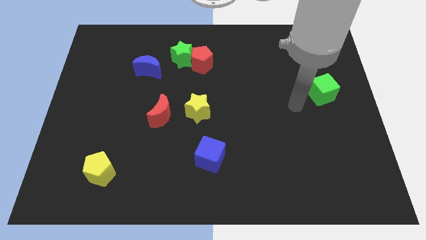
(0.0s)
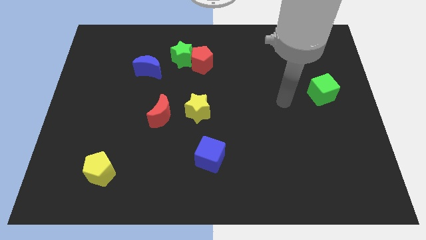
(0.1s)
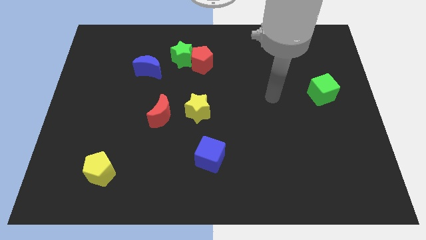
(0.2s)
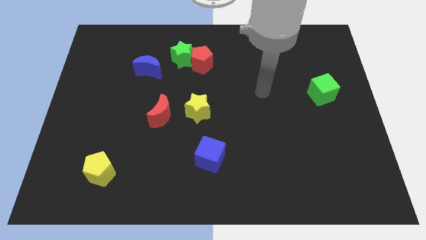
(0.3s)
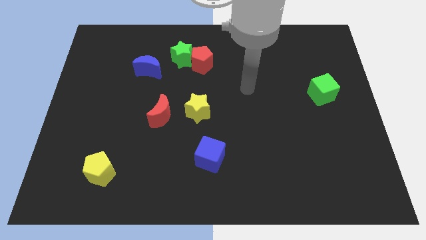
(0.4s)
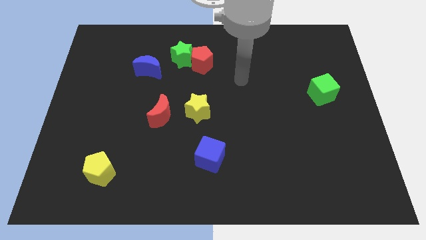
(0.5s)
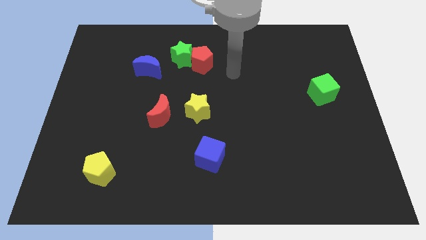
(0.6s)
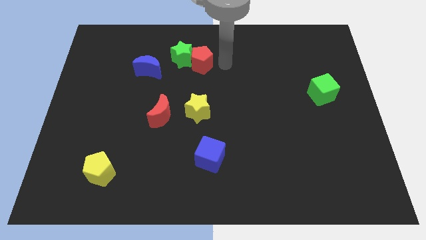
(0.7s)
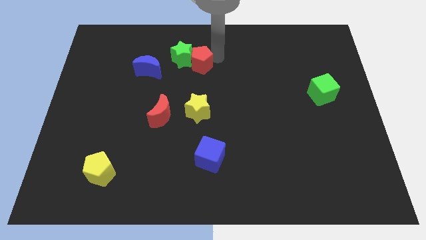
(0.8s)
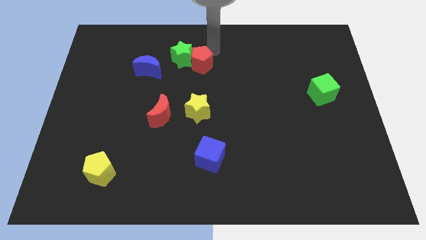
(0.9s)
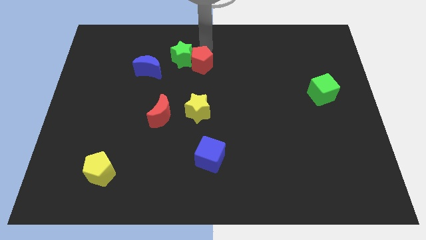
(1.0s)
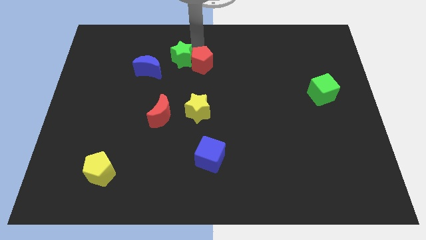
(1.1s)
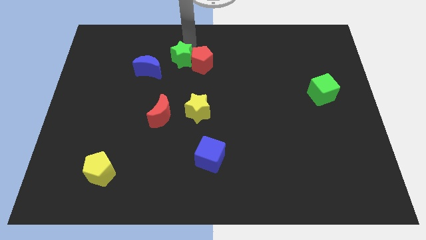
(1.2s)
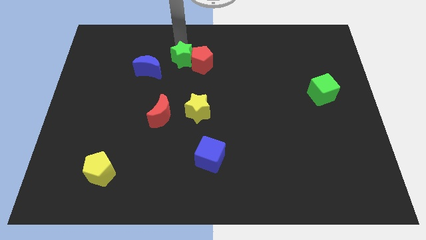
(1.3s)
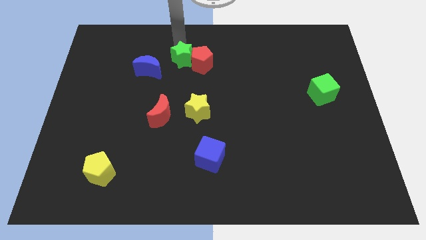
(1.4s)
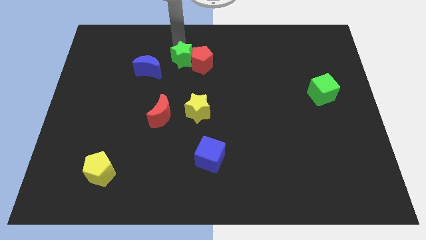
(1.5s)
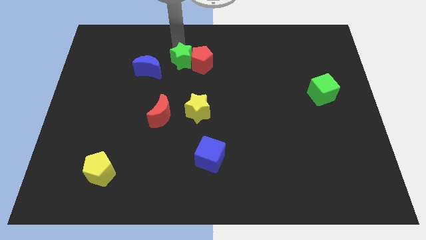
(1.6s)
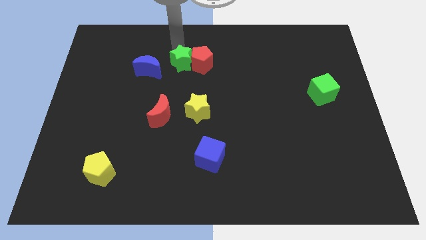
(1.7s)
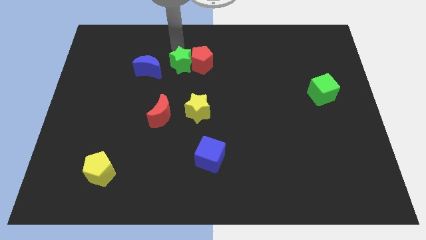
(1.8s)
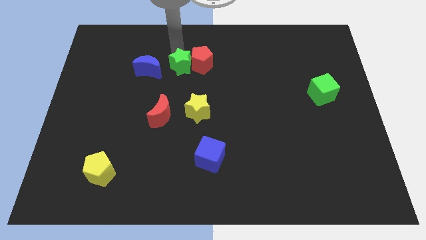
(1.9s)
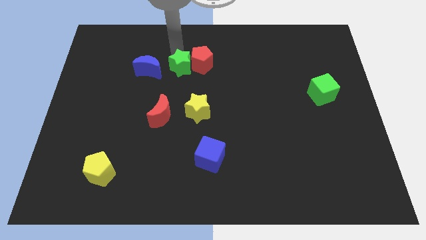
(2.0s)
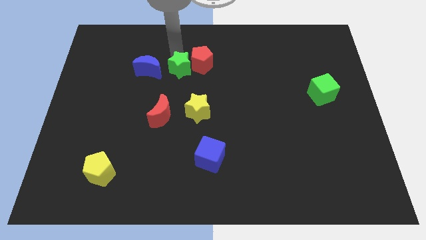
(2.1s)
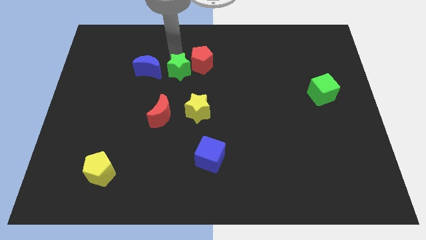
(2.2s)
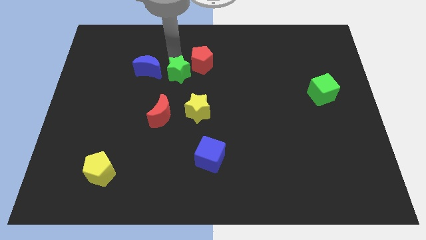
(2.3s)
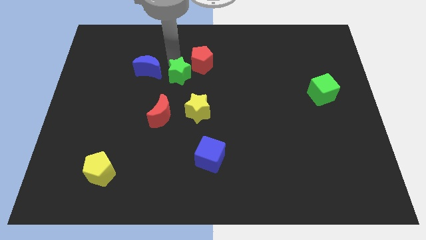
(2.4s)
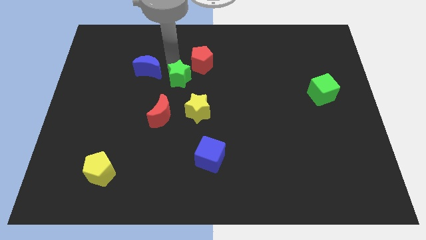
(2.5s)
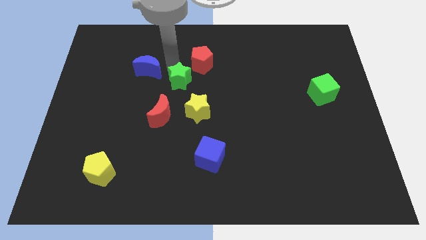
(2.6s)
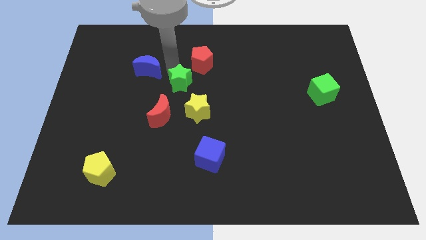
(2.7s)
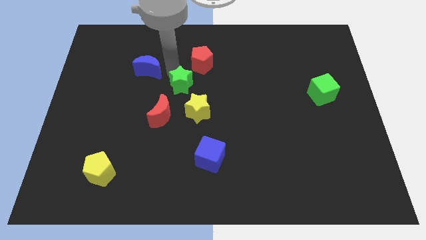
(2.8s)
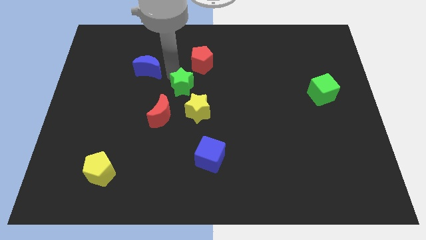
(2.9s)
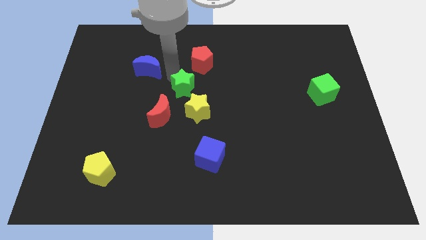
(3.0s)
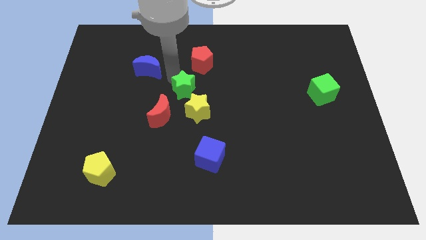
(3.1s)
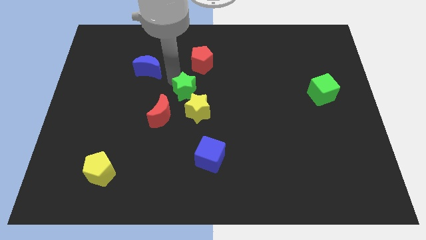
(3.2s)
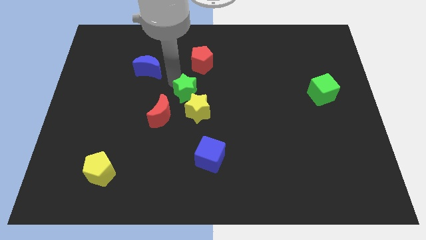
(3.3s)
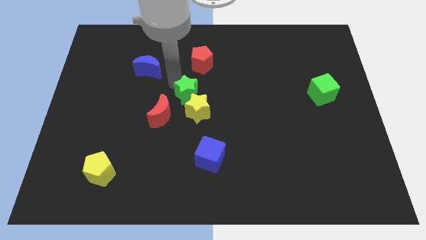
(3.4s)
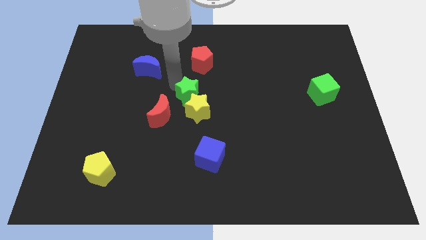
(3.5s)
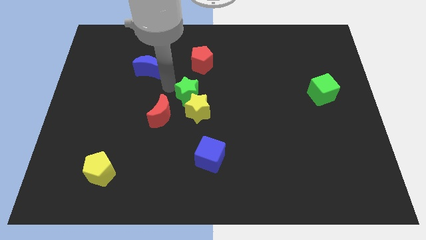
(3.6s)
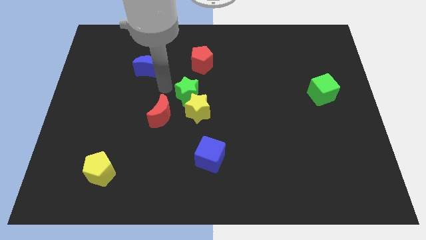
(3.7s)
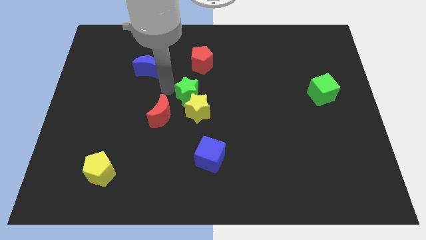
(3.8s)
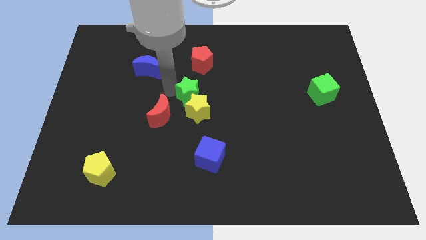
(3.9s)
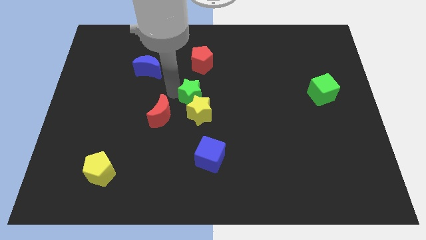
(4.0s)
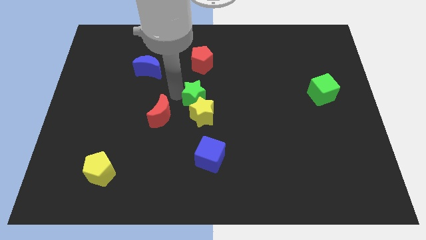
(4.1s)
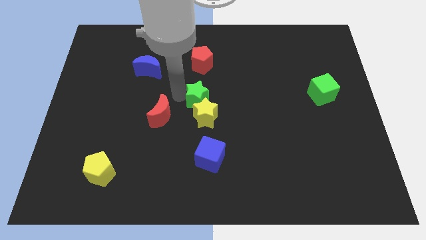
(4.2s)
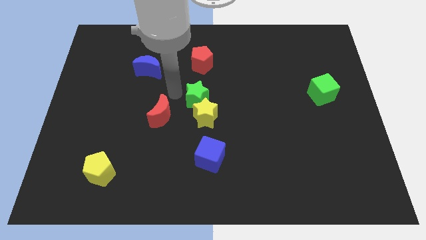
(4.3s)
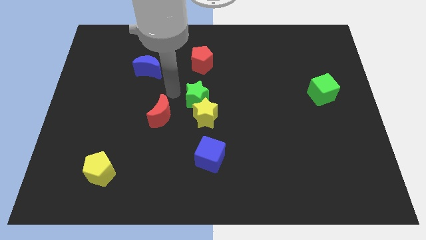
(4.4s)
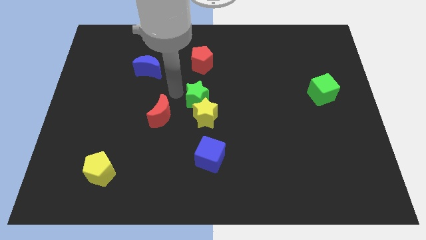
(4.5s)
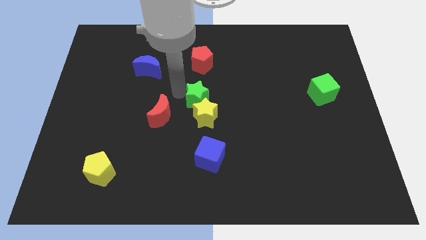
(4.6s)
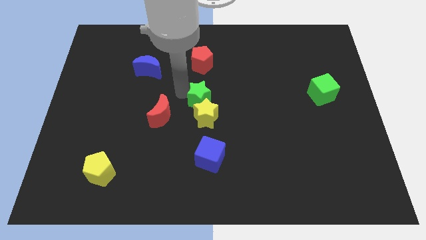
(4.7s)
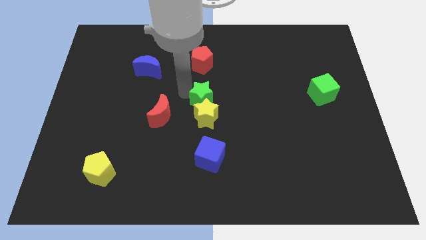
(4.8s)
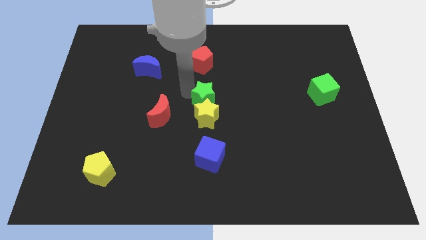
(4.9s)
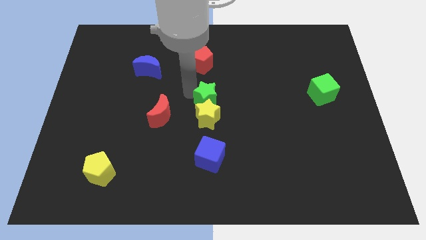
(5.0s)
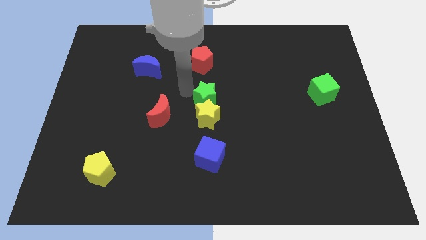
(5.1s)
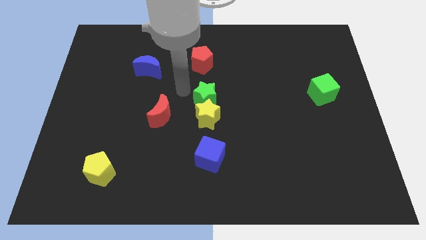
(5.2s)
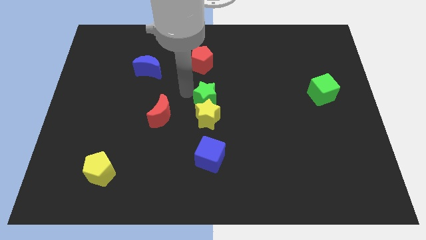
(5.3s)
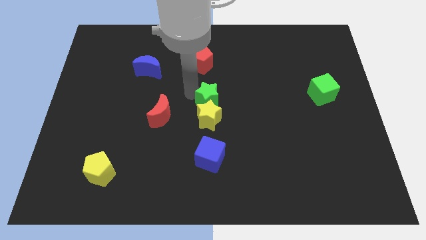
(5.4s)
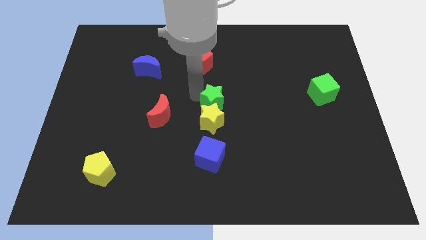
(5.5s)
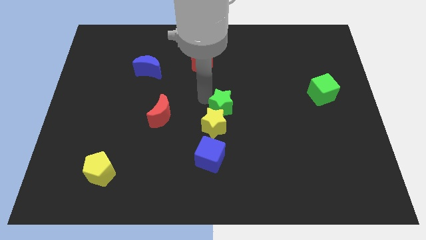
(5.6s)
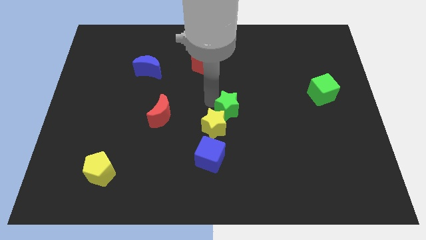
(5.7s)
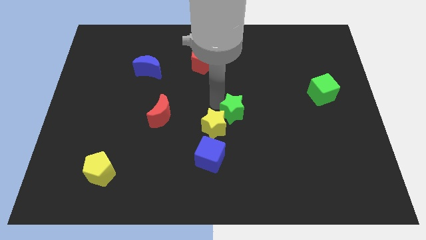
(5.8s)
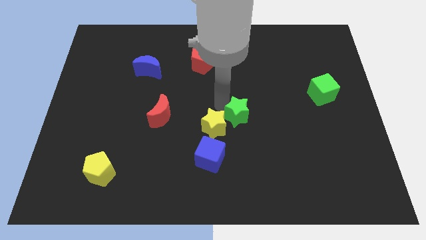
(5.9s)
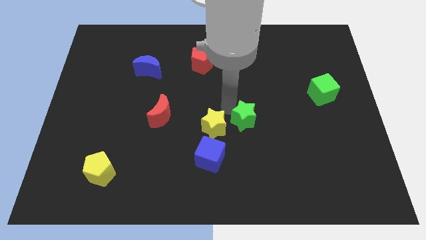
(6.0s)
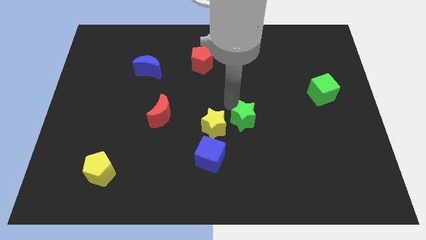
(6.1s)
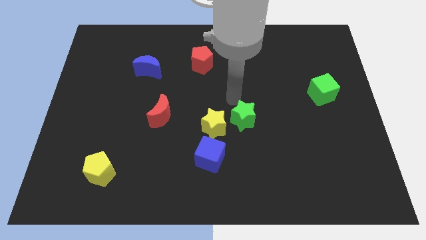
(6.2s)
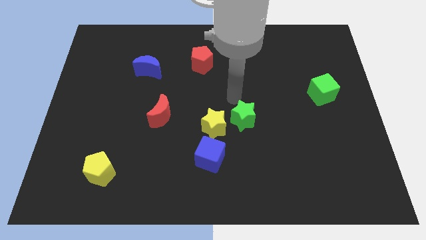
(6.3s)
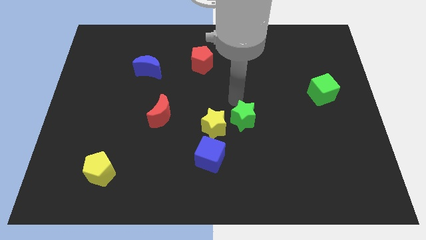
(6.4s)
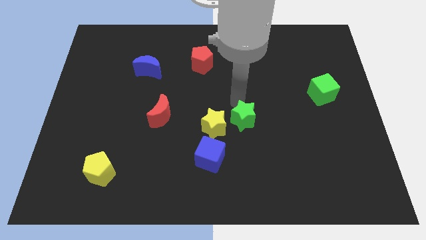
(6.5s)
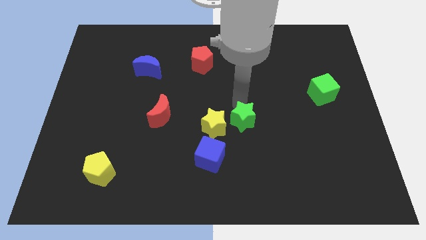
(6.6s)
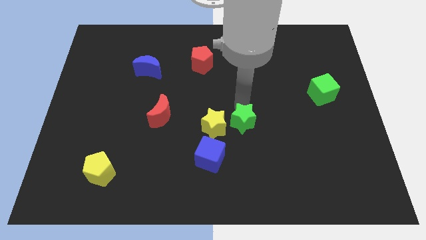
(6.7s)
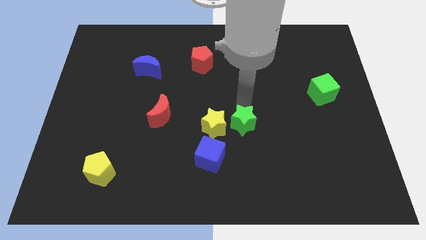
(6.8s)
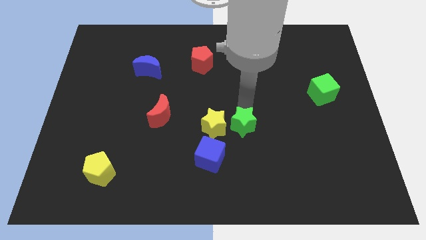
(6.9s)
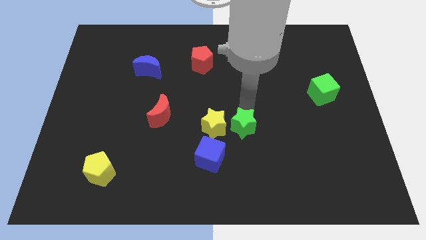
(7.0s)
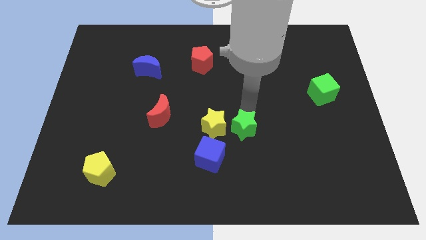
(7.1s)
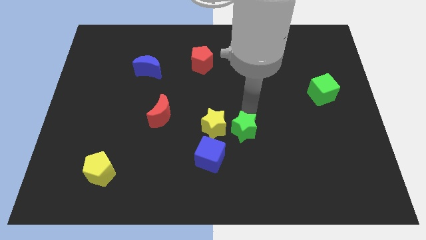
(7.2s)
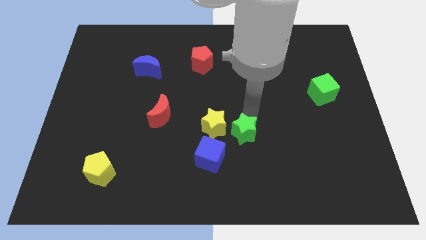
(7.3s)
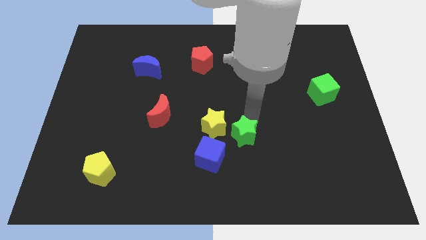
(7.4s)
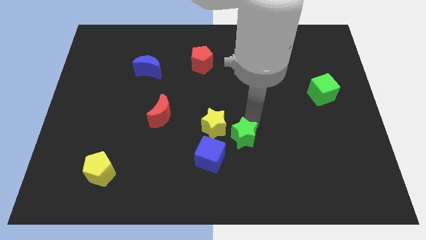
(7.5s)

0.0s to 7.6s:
push the green star just right of the blue cube
